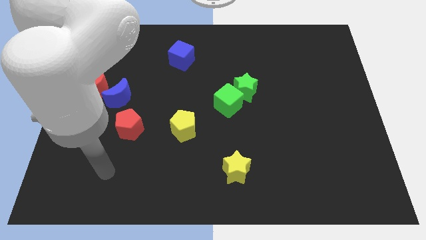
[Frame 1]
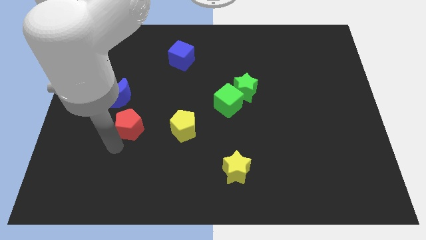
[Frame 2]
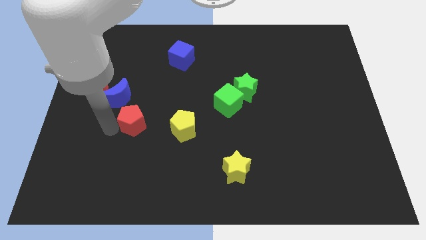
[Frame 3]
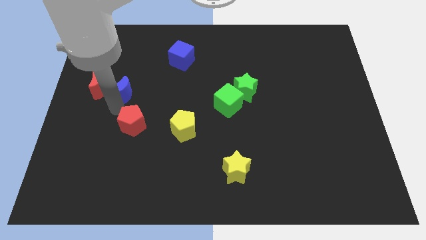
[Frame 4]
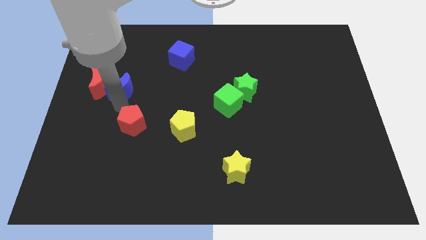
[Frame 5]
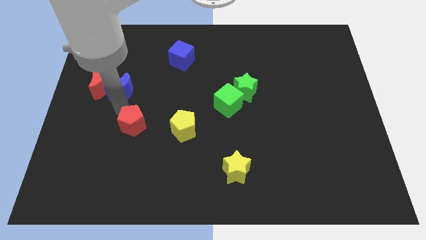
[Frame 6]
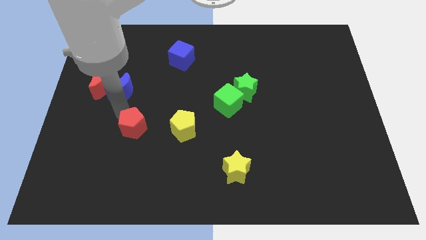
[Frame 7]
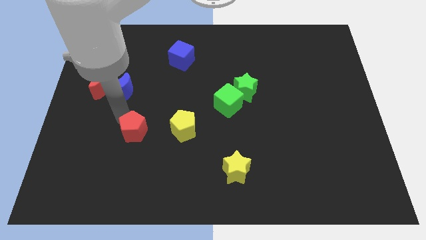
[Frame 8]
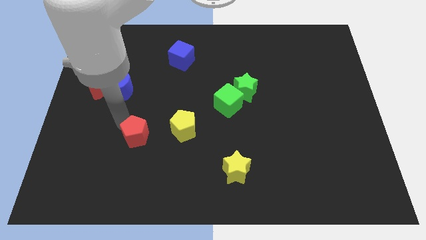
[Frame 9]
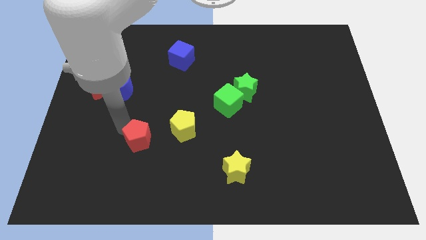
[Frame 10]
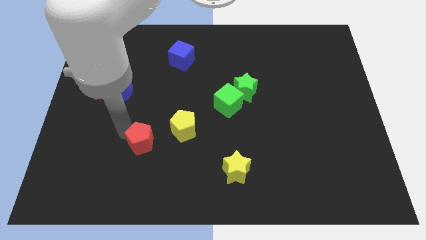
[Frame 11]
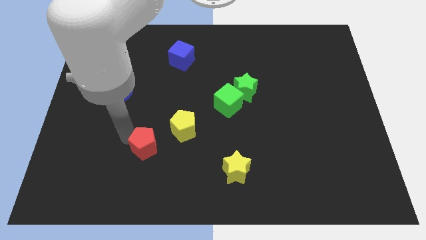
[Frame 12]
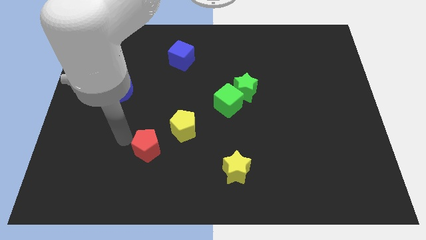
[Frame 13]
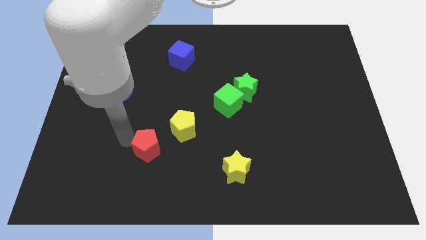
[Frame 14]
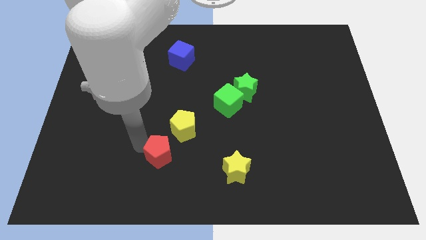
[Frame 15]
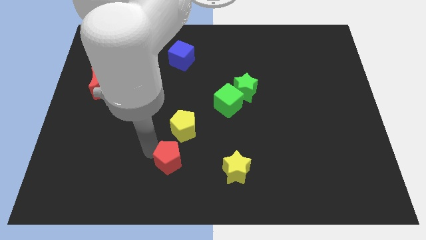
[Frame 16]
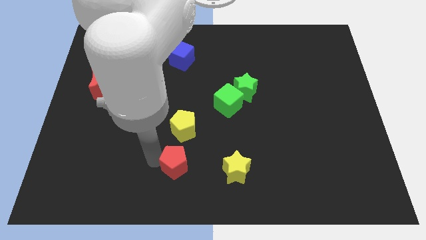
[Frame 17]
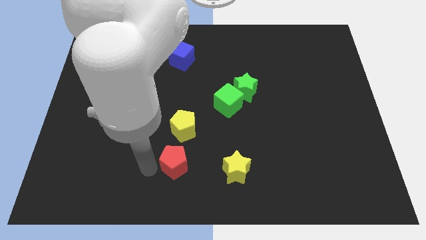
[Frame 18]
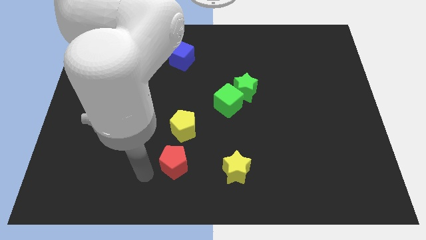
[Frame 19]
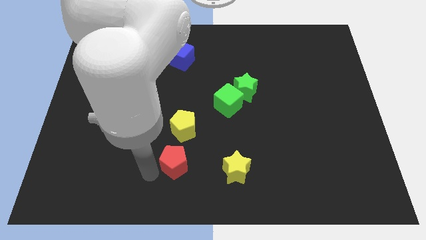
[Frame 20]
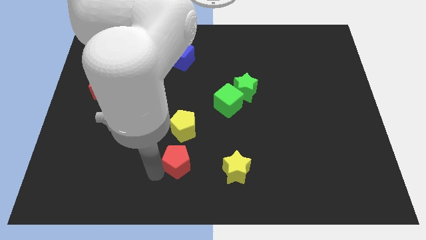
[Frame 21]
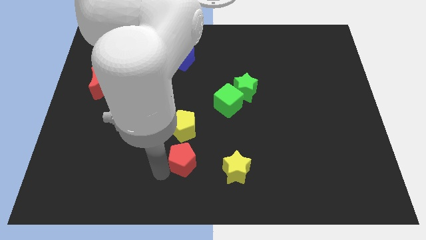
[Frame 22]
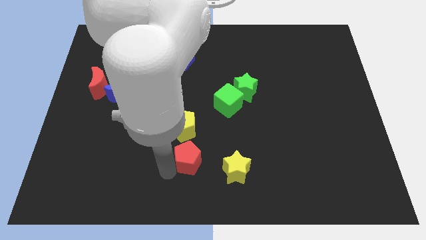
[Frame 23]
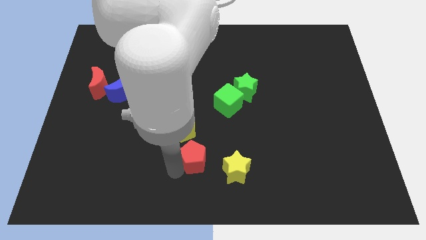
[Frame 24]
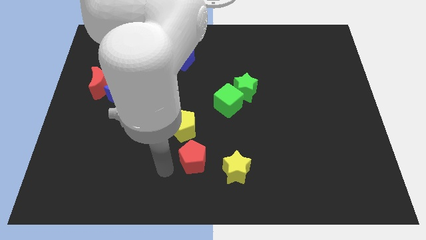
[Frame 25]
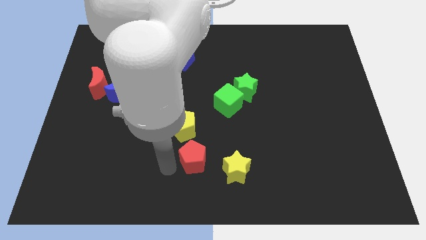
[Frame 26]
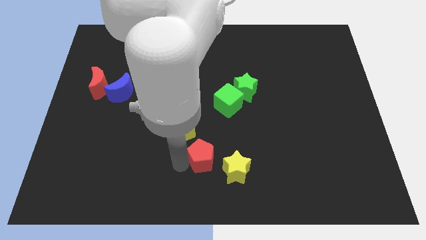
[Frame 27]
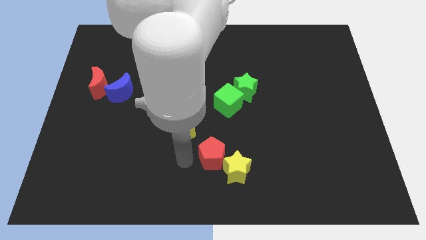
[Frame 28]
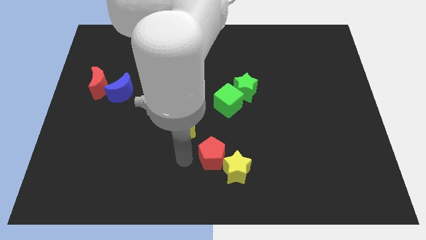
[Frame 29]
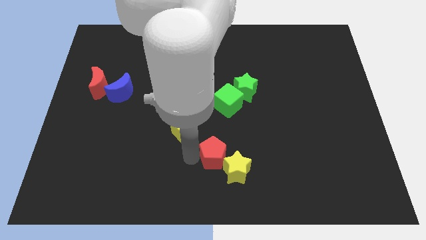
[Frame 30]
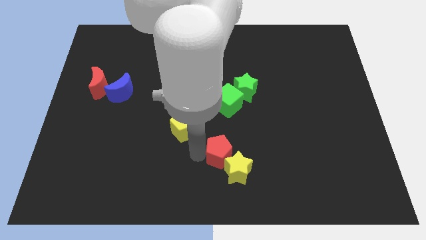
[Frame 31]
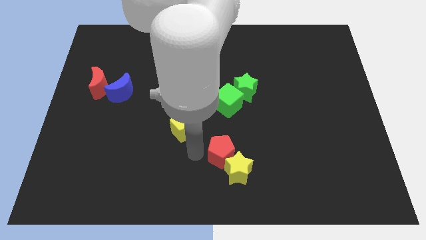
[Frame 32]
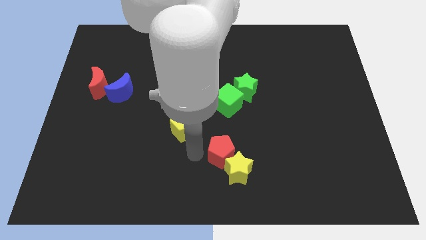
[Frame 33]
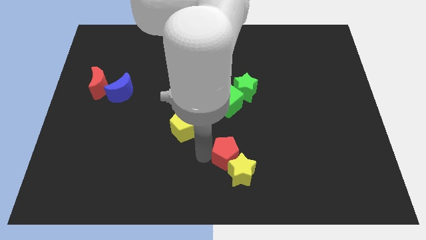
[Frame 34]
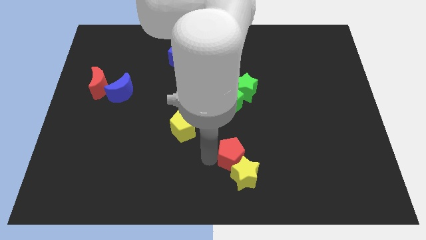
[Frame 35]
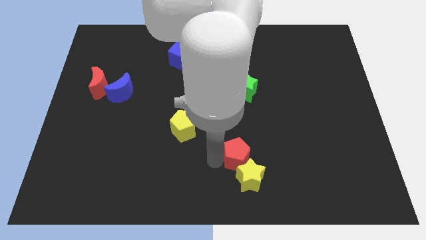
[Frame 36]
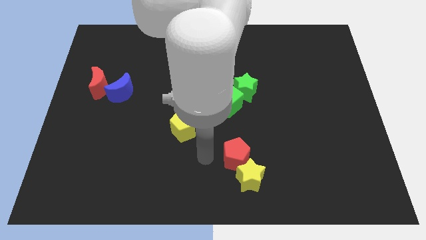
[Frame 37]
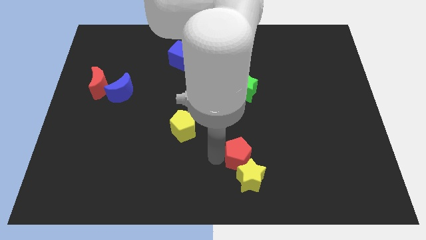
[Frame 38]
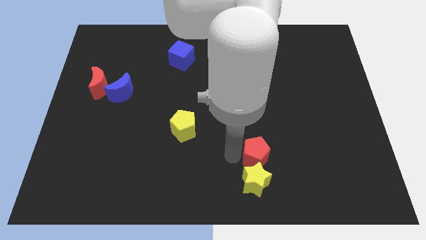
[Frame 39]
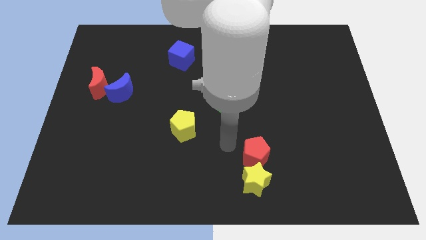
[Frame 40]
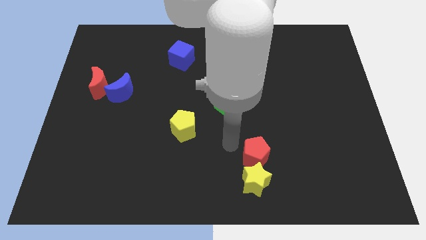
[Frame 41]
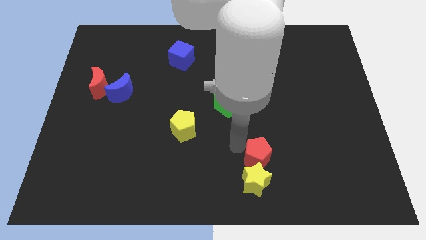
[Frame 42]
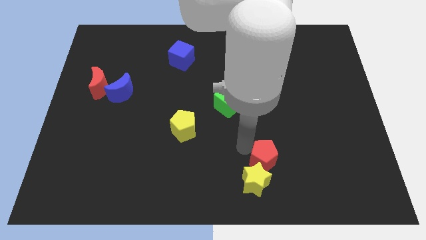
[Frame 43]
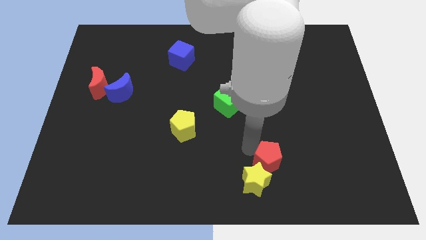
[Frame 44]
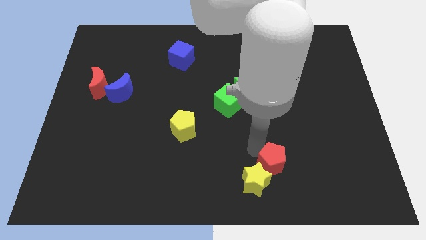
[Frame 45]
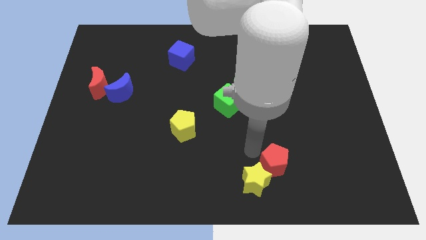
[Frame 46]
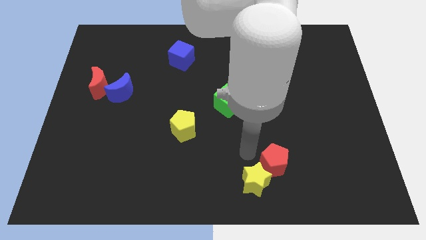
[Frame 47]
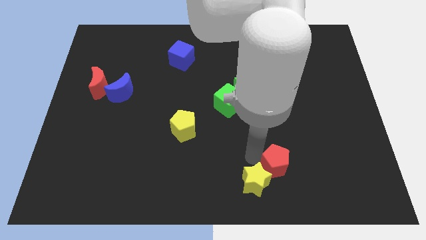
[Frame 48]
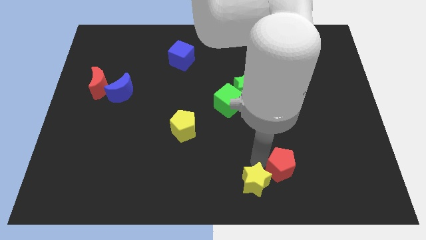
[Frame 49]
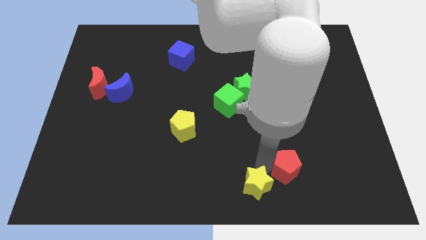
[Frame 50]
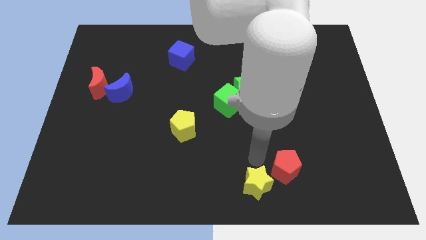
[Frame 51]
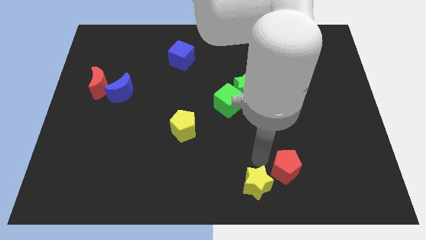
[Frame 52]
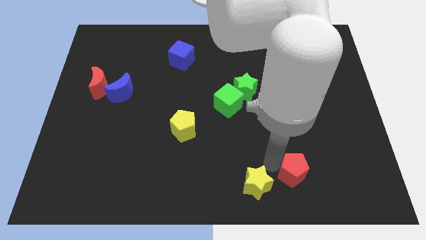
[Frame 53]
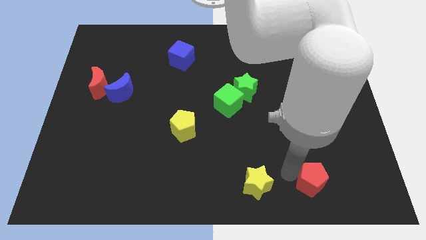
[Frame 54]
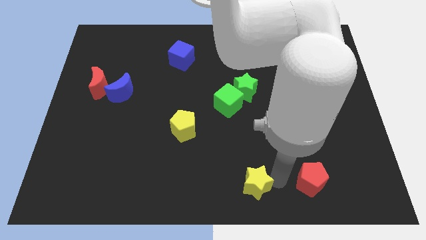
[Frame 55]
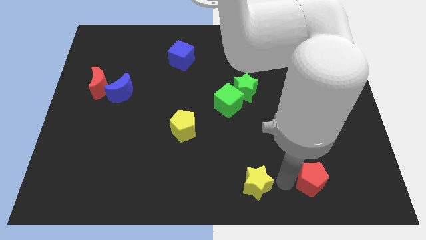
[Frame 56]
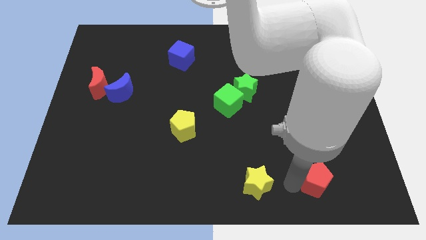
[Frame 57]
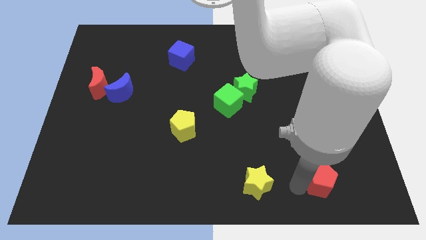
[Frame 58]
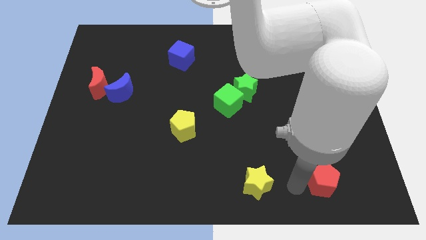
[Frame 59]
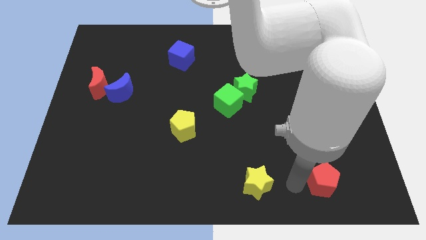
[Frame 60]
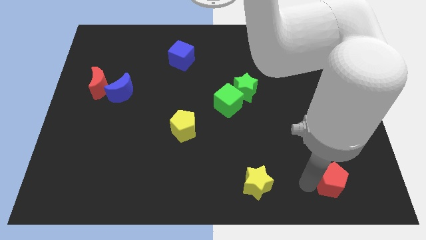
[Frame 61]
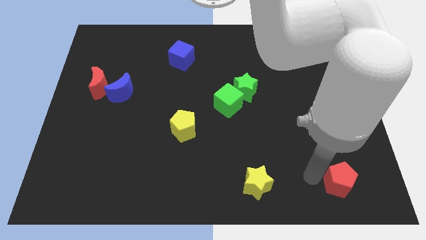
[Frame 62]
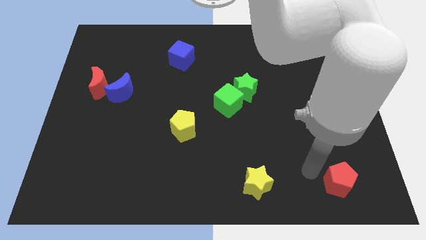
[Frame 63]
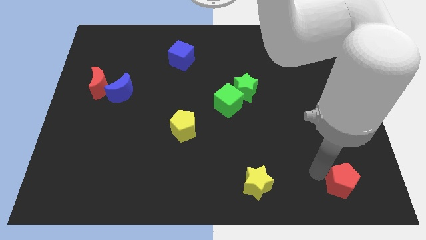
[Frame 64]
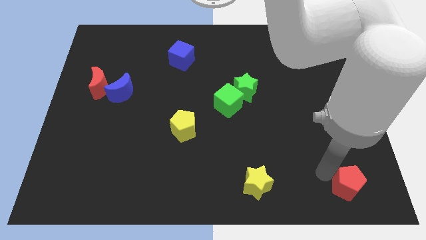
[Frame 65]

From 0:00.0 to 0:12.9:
push the red pentagon to the bottom right
